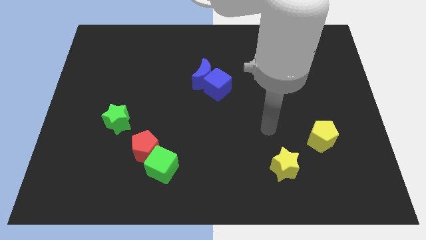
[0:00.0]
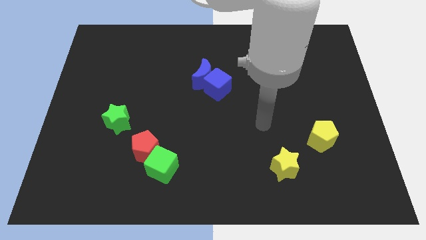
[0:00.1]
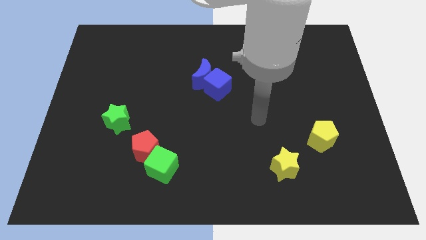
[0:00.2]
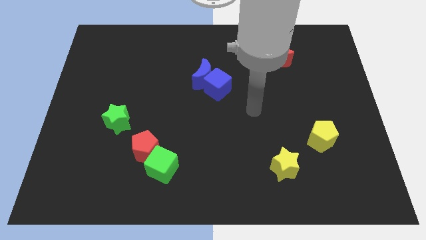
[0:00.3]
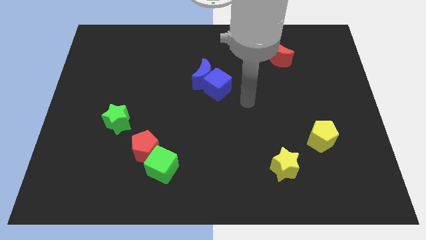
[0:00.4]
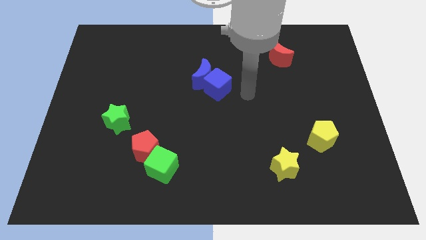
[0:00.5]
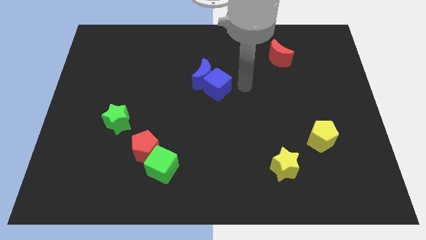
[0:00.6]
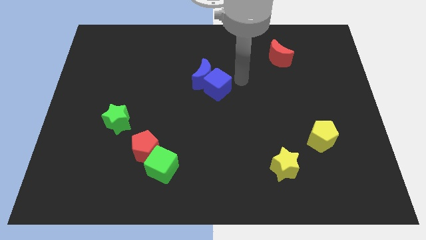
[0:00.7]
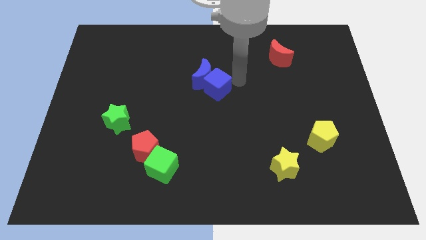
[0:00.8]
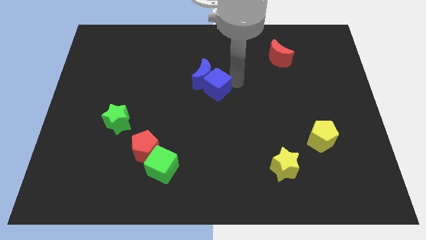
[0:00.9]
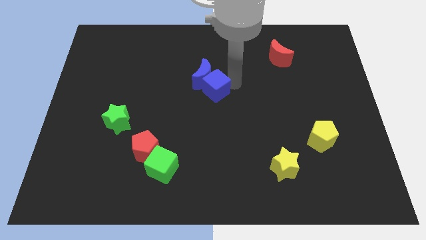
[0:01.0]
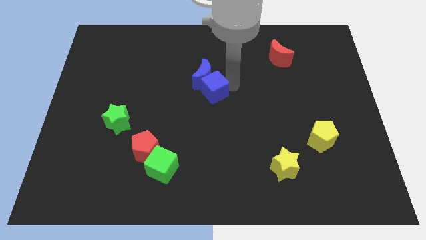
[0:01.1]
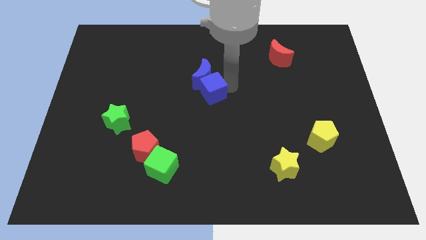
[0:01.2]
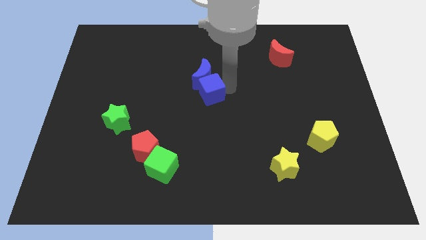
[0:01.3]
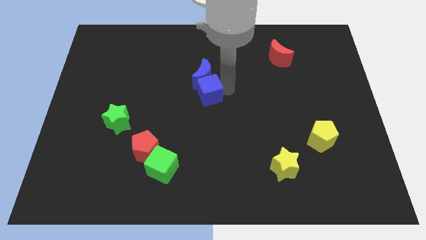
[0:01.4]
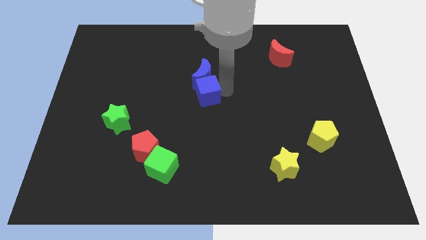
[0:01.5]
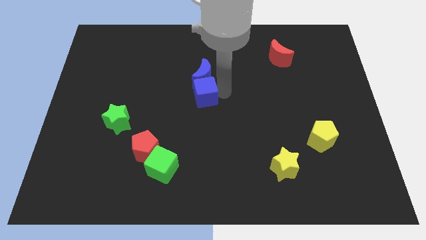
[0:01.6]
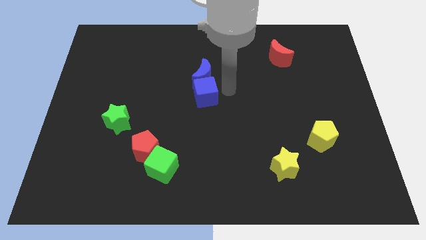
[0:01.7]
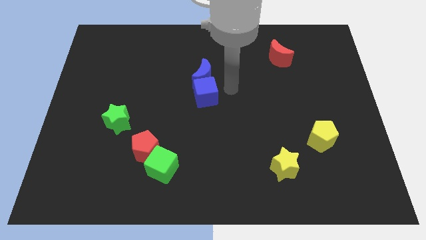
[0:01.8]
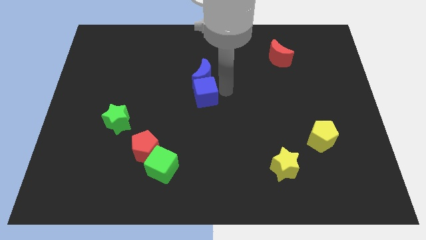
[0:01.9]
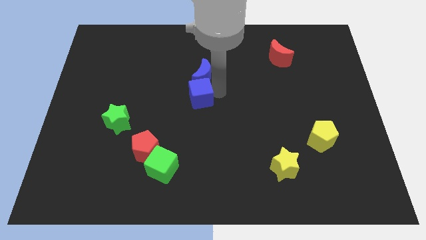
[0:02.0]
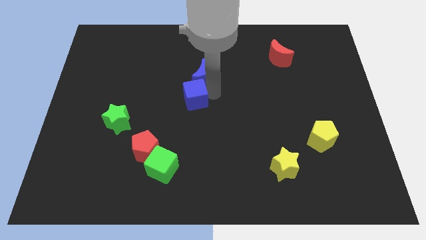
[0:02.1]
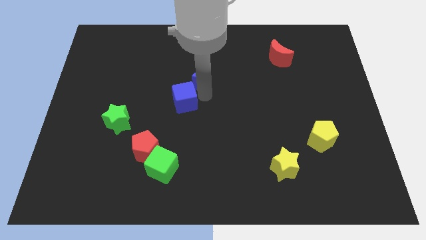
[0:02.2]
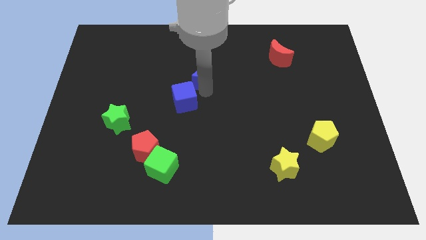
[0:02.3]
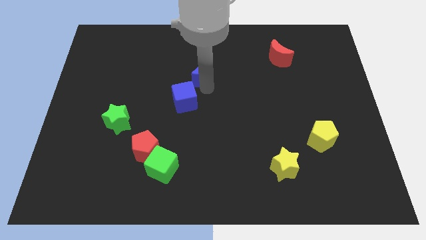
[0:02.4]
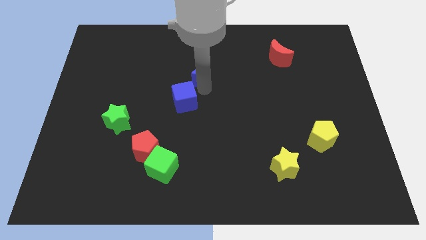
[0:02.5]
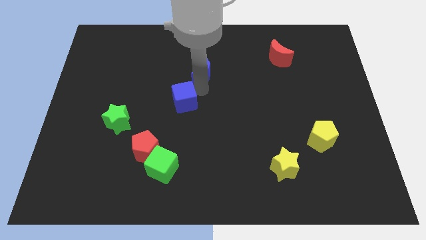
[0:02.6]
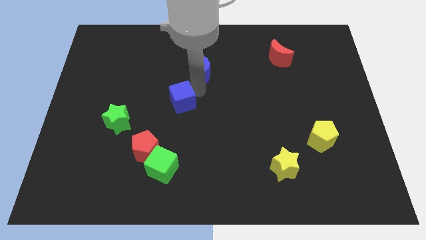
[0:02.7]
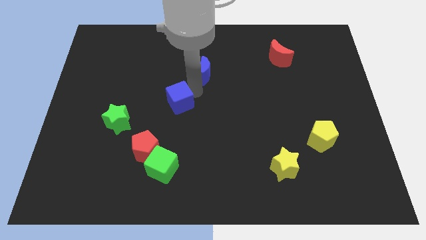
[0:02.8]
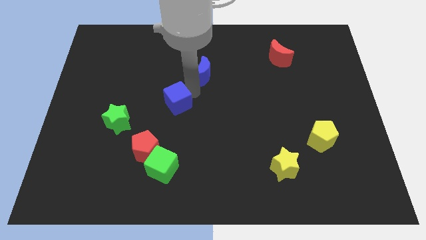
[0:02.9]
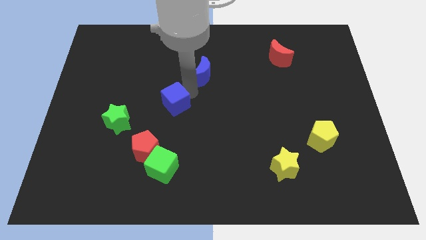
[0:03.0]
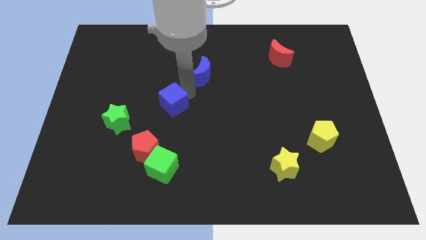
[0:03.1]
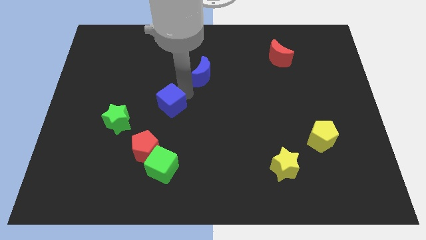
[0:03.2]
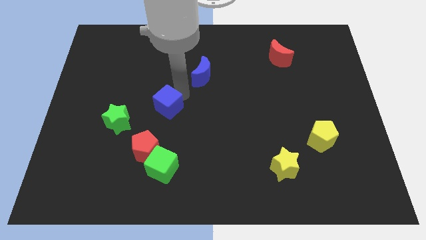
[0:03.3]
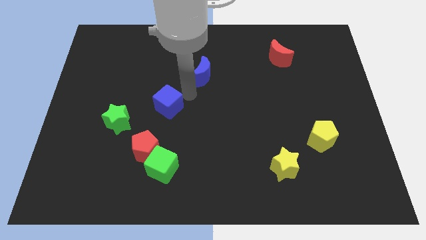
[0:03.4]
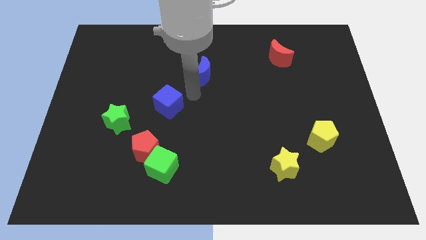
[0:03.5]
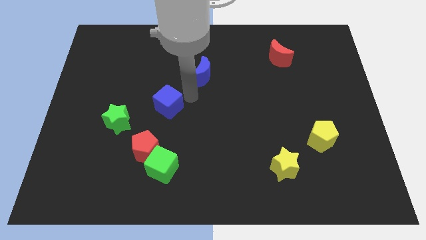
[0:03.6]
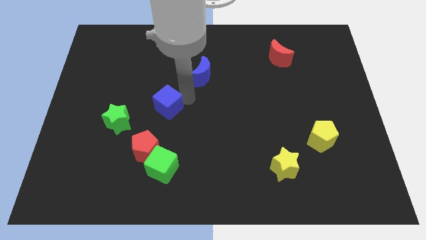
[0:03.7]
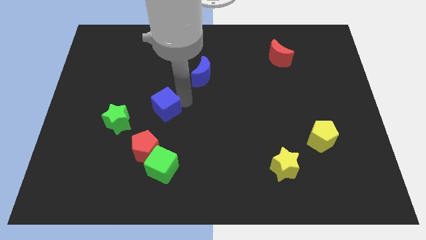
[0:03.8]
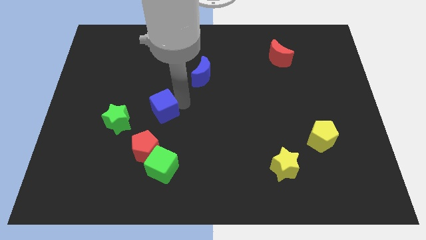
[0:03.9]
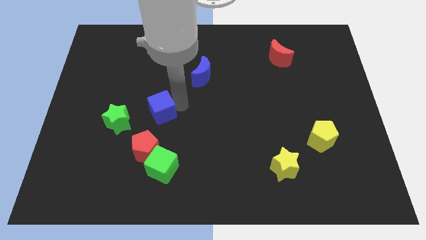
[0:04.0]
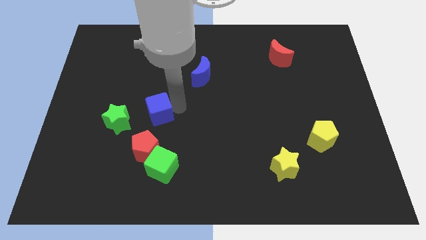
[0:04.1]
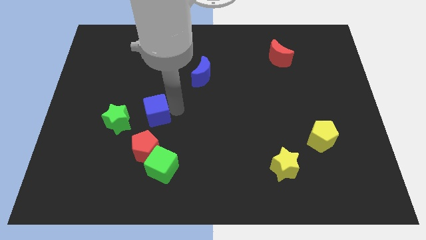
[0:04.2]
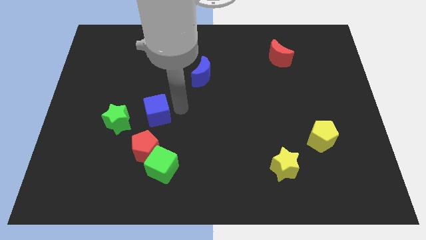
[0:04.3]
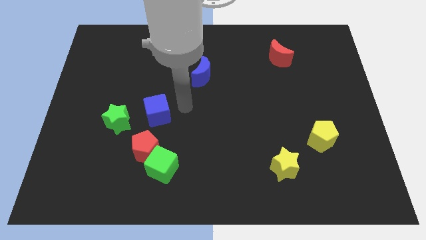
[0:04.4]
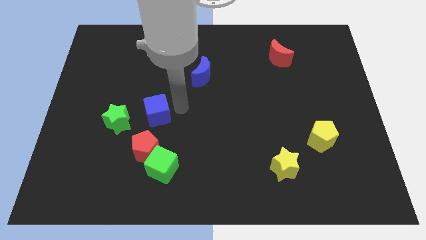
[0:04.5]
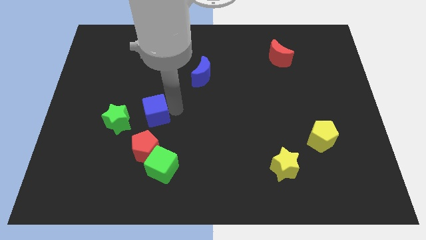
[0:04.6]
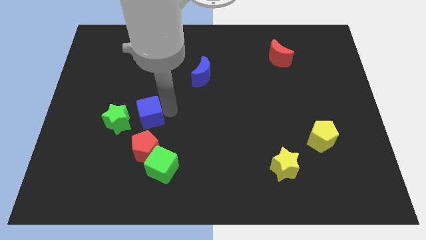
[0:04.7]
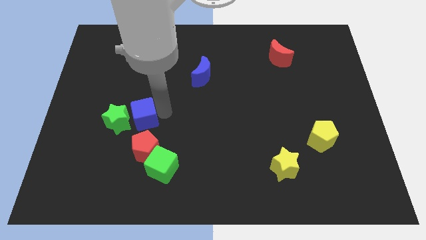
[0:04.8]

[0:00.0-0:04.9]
put the blue cube next to the green star

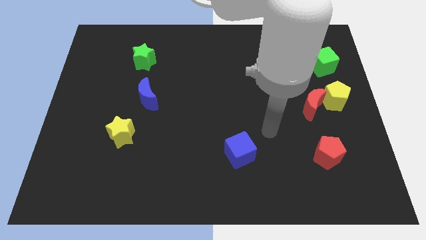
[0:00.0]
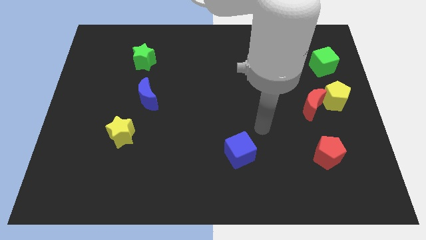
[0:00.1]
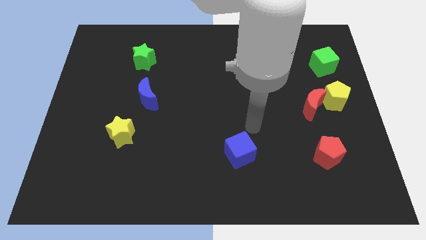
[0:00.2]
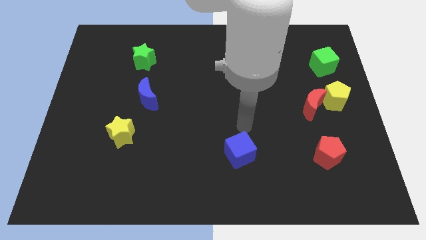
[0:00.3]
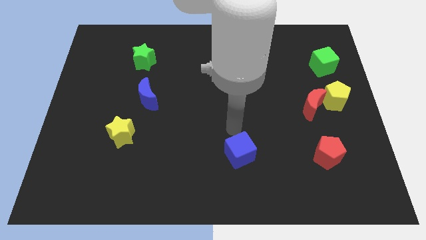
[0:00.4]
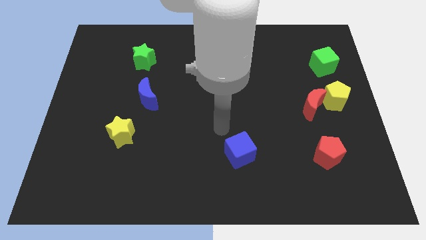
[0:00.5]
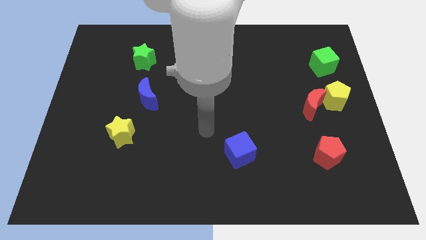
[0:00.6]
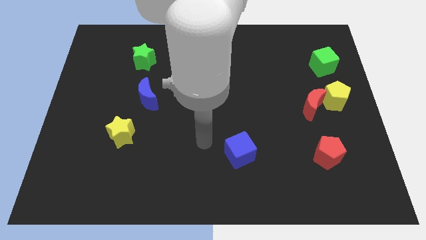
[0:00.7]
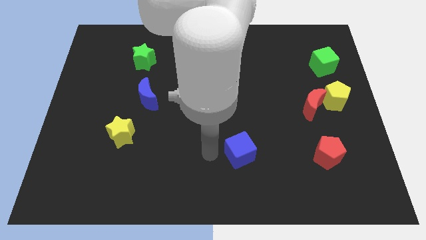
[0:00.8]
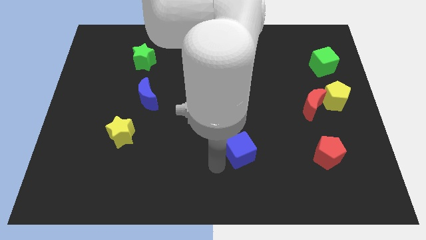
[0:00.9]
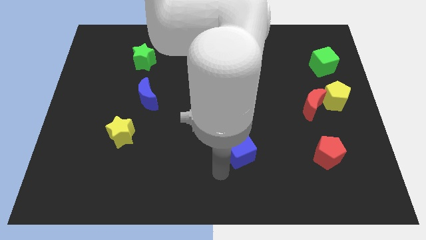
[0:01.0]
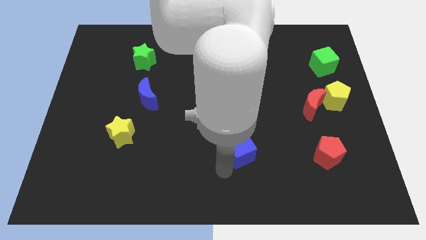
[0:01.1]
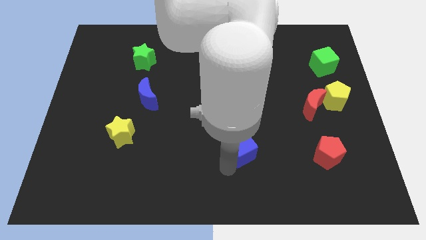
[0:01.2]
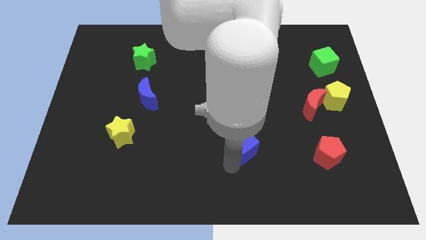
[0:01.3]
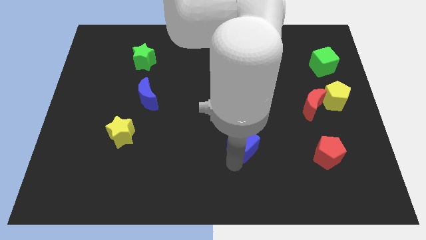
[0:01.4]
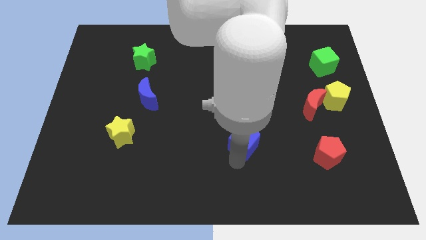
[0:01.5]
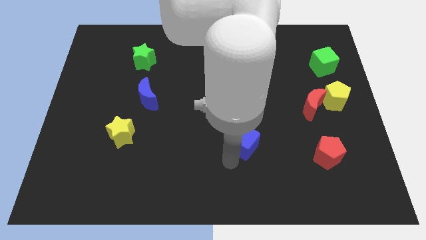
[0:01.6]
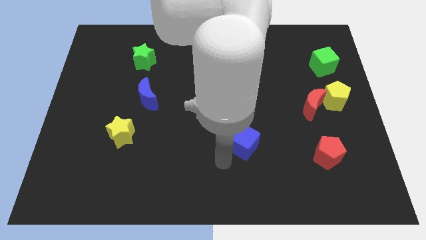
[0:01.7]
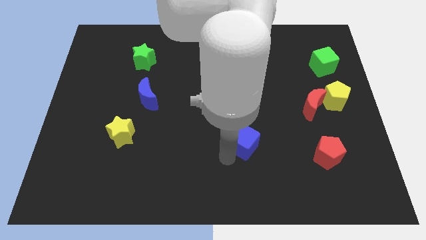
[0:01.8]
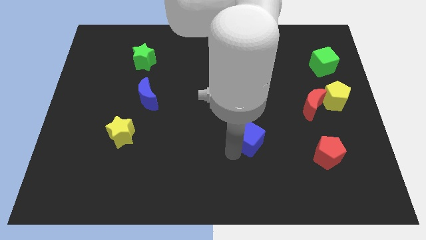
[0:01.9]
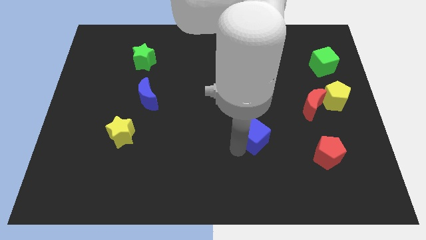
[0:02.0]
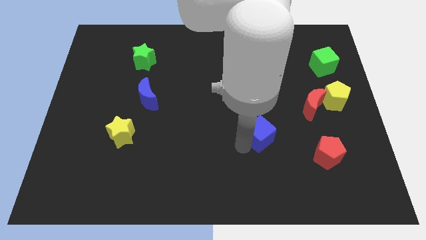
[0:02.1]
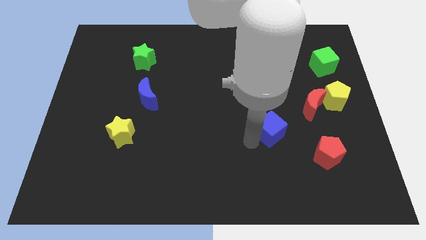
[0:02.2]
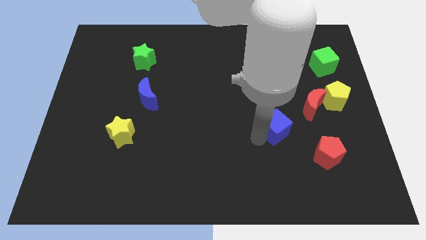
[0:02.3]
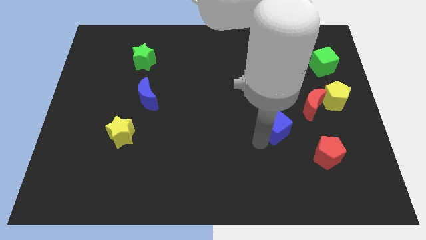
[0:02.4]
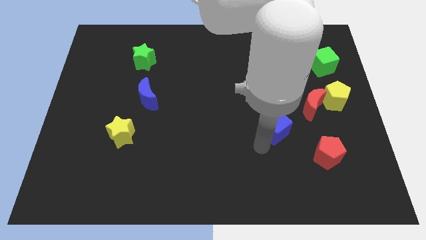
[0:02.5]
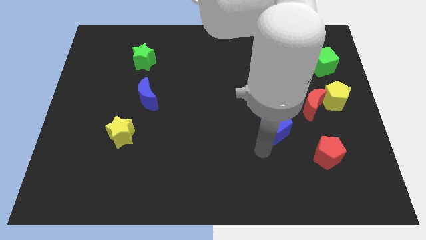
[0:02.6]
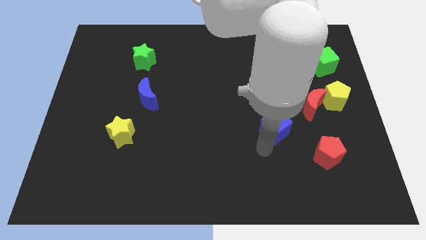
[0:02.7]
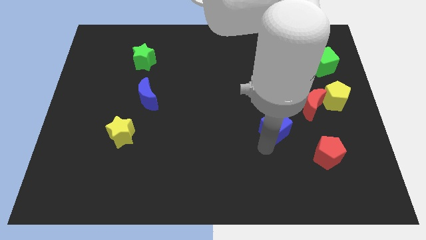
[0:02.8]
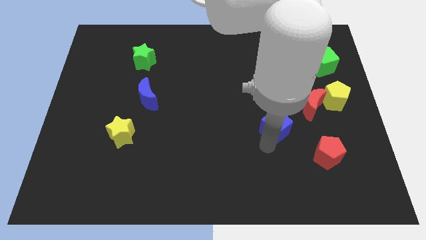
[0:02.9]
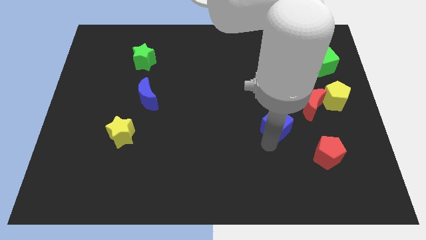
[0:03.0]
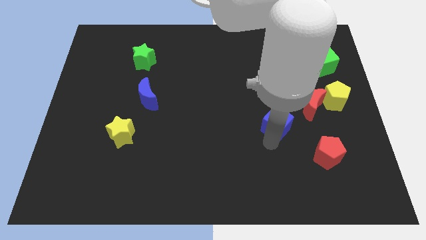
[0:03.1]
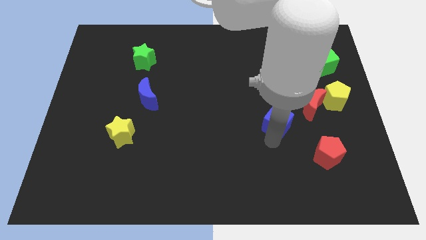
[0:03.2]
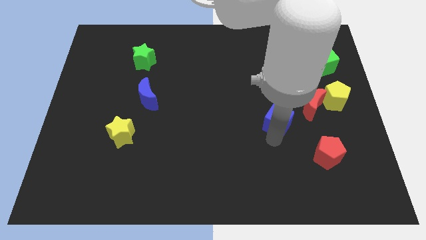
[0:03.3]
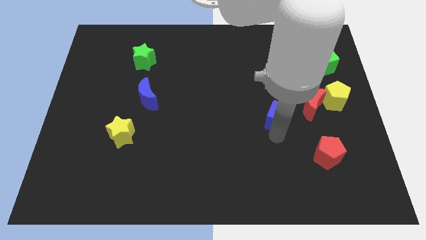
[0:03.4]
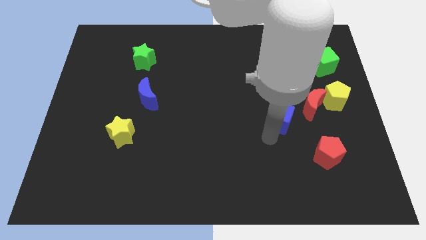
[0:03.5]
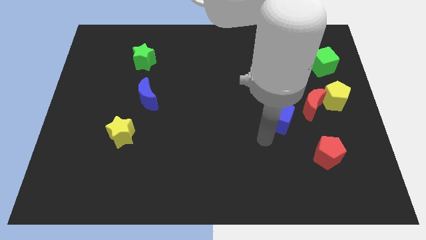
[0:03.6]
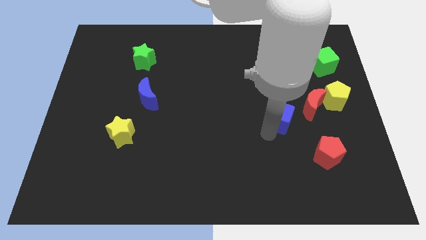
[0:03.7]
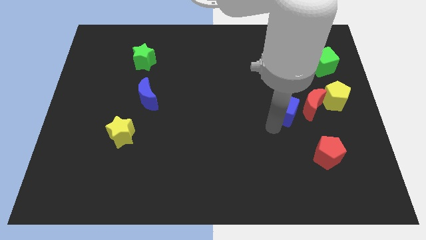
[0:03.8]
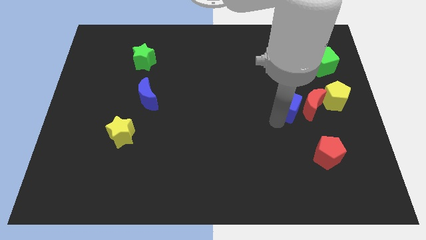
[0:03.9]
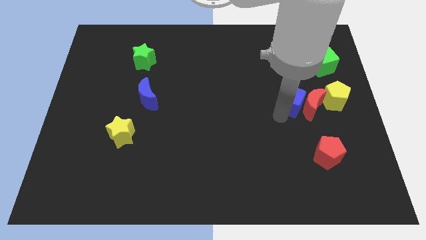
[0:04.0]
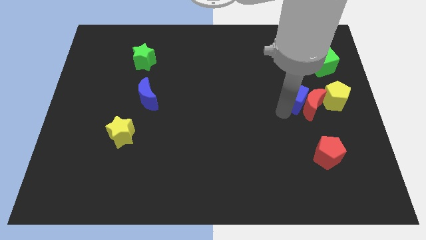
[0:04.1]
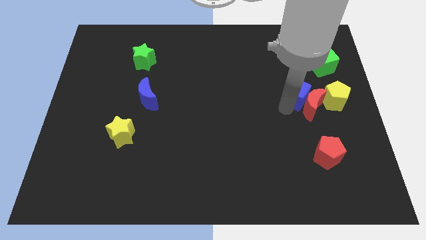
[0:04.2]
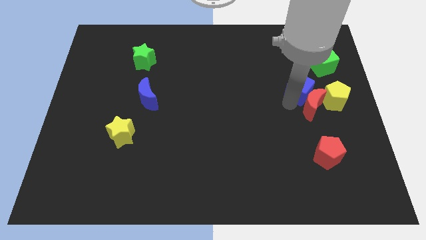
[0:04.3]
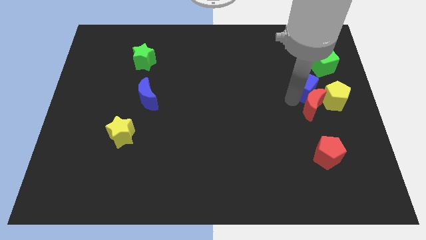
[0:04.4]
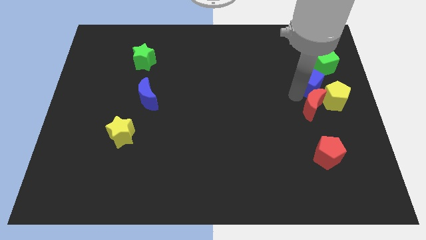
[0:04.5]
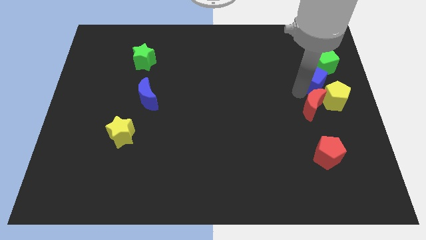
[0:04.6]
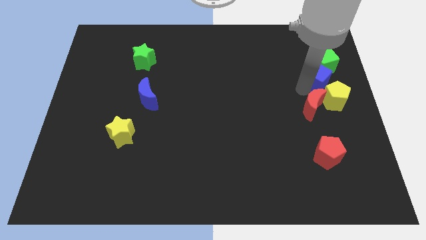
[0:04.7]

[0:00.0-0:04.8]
slide the blue cube to the green cube
